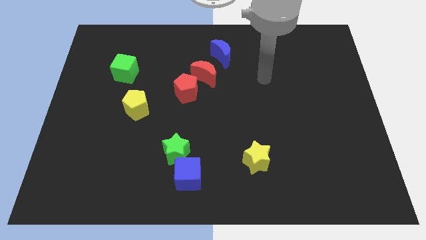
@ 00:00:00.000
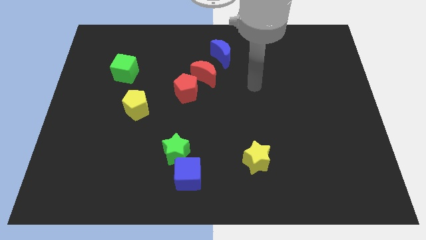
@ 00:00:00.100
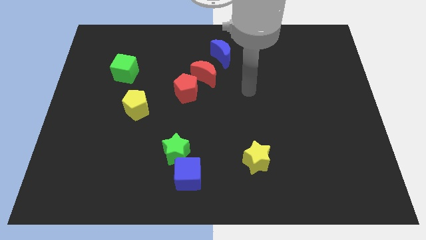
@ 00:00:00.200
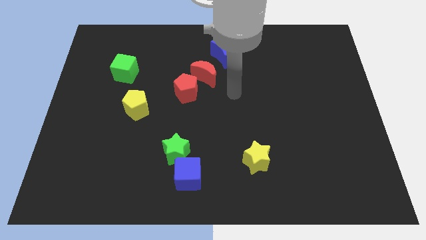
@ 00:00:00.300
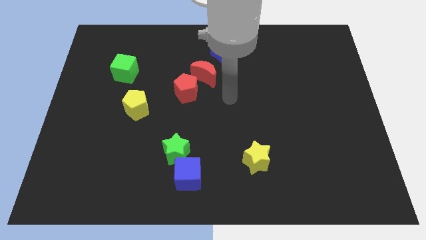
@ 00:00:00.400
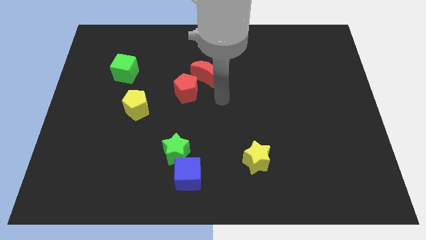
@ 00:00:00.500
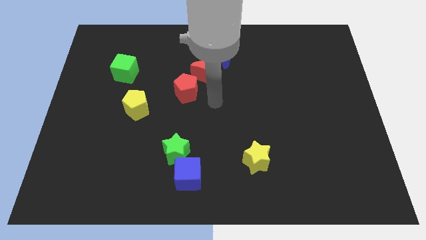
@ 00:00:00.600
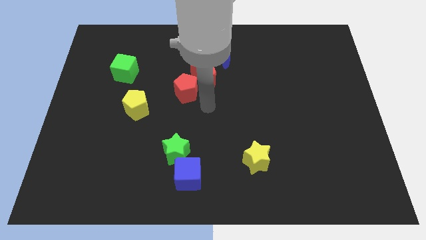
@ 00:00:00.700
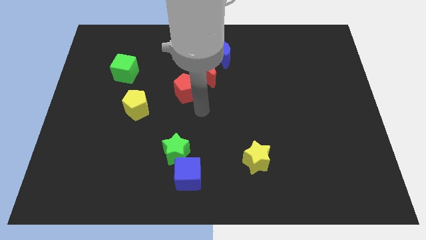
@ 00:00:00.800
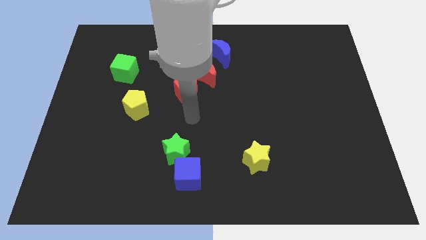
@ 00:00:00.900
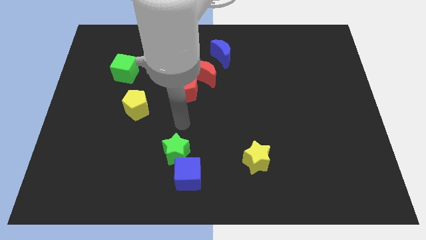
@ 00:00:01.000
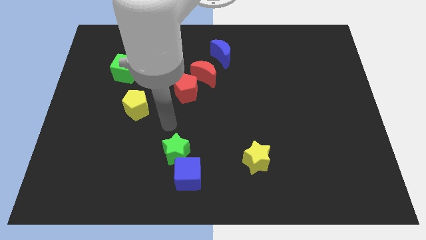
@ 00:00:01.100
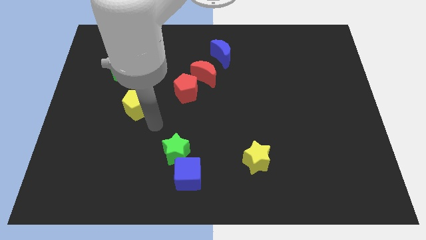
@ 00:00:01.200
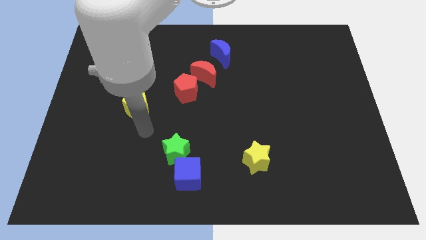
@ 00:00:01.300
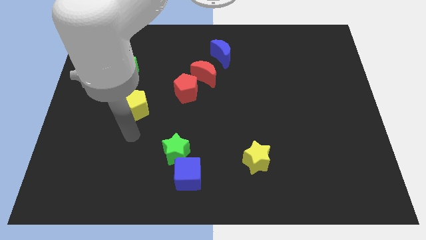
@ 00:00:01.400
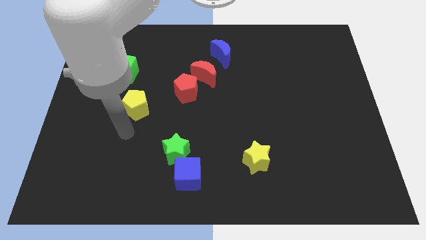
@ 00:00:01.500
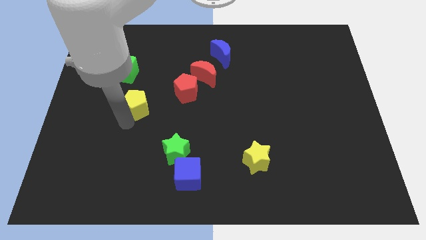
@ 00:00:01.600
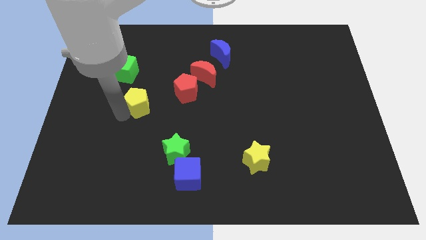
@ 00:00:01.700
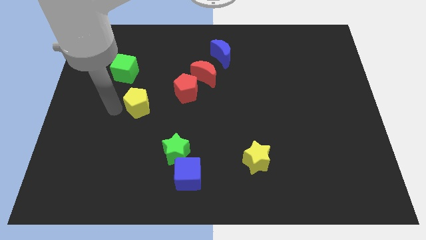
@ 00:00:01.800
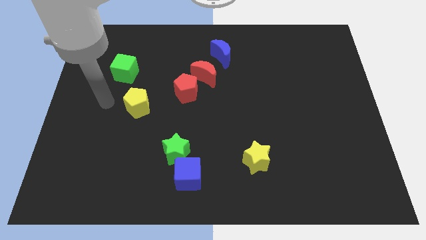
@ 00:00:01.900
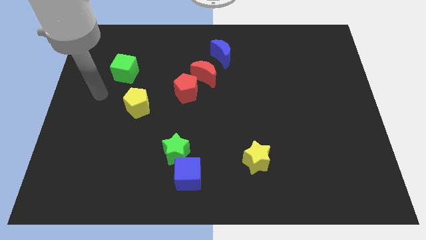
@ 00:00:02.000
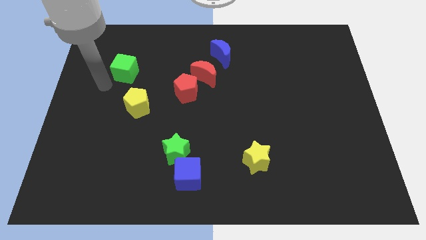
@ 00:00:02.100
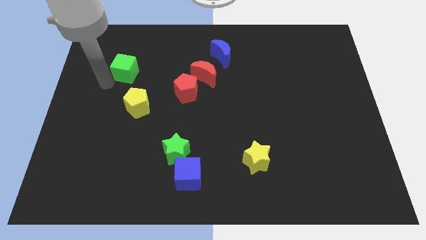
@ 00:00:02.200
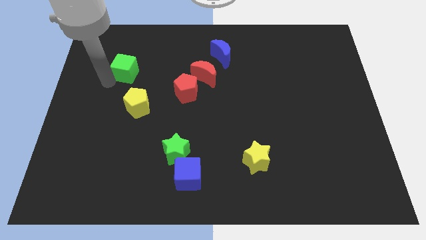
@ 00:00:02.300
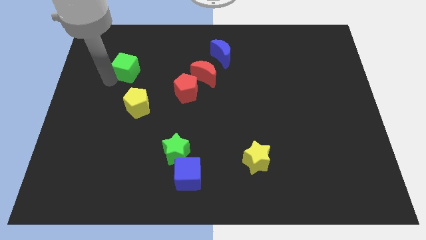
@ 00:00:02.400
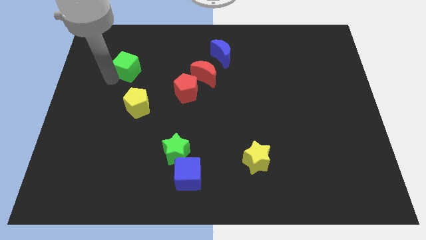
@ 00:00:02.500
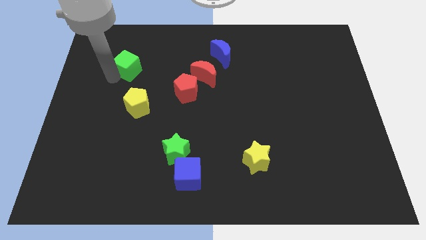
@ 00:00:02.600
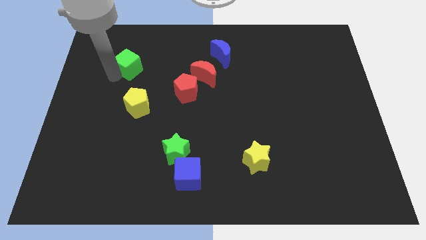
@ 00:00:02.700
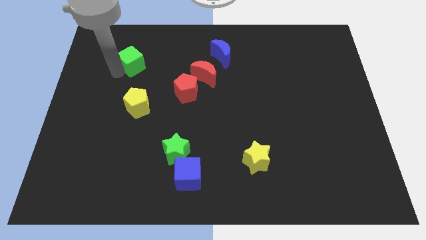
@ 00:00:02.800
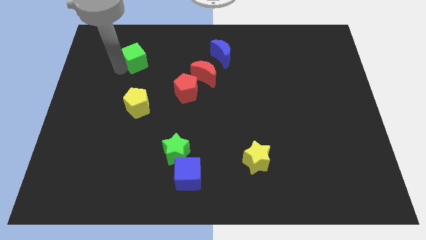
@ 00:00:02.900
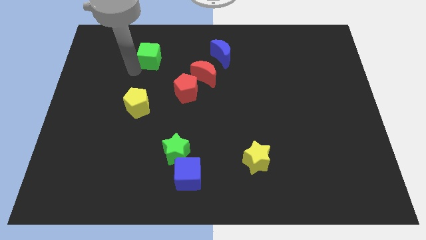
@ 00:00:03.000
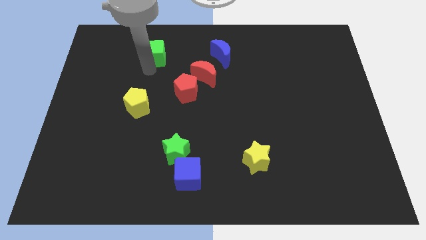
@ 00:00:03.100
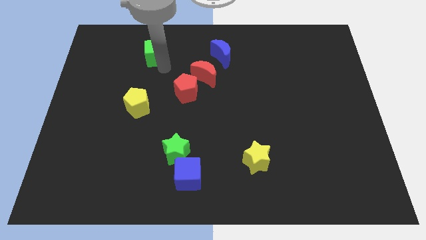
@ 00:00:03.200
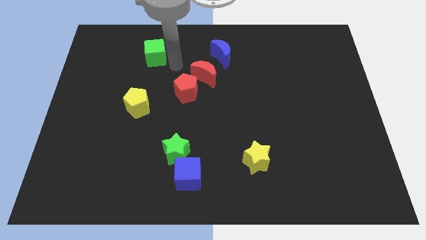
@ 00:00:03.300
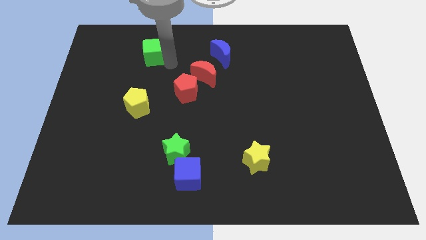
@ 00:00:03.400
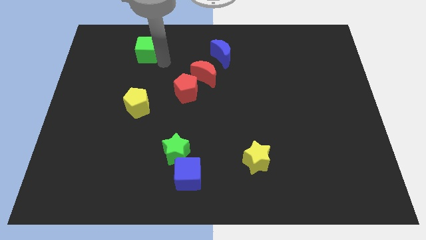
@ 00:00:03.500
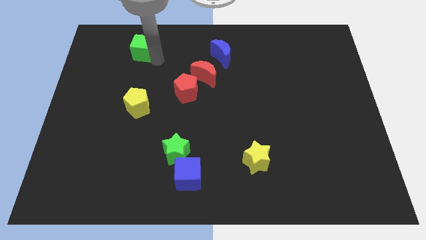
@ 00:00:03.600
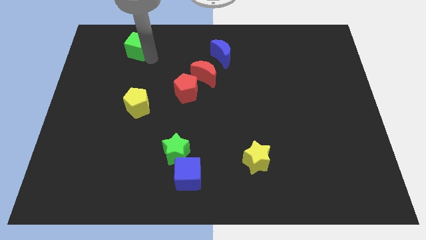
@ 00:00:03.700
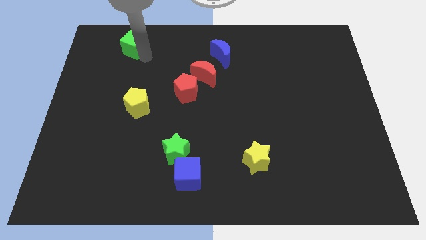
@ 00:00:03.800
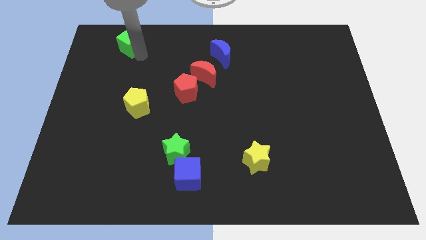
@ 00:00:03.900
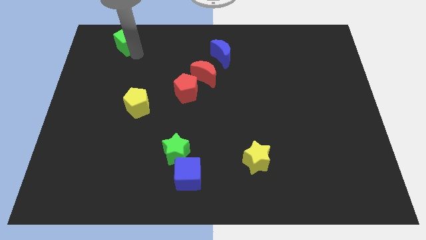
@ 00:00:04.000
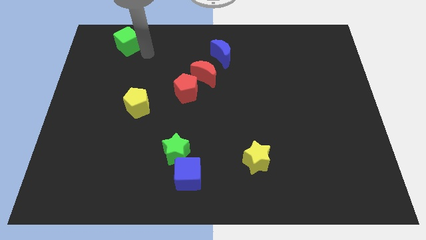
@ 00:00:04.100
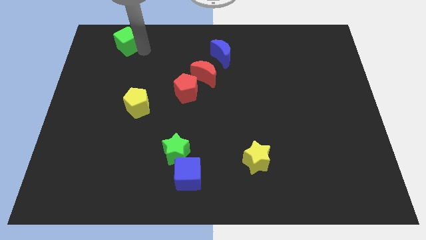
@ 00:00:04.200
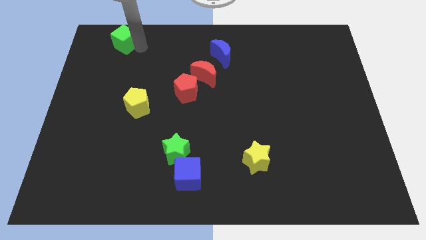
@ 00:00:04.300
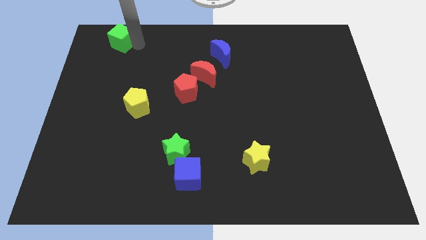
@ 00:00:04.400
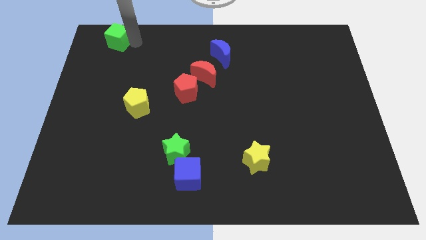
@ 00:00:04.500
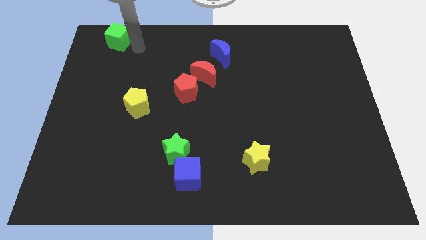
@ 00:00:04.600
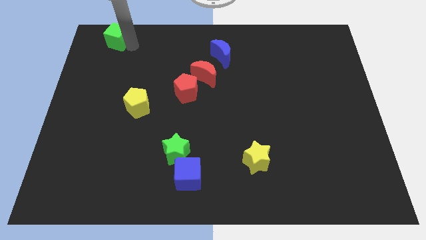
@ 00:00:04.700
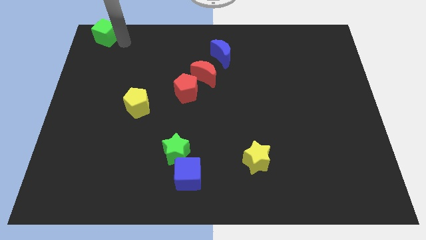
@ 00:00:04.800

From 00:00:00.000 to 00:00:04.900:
push the green cube to the top left of the board

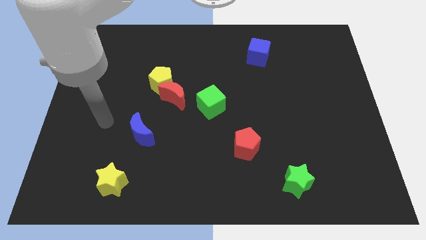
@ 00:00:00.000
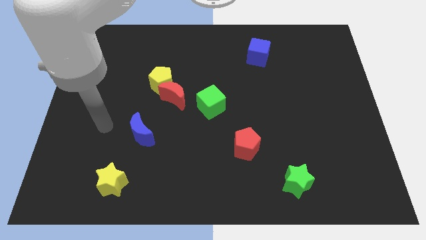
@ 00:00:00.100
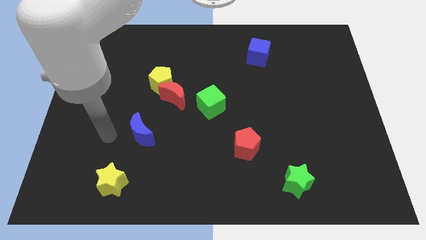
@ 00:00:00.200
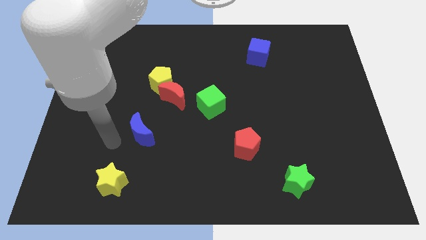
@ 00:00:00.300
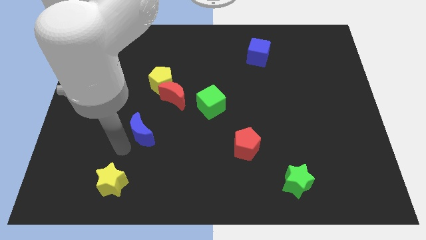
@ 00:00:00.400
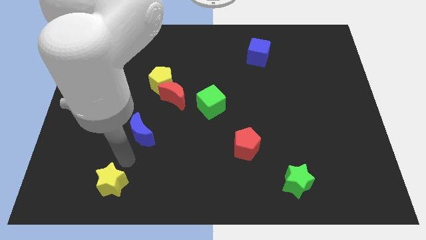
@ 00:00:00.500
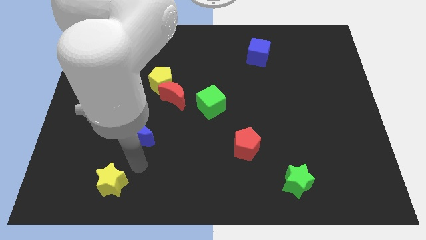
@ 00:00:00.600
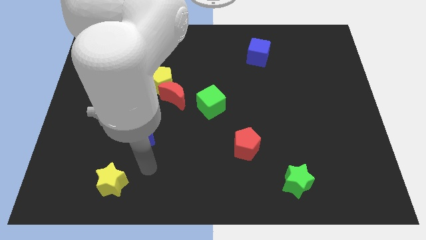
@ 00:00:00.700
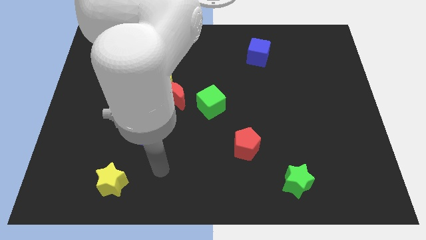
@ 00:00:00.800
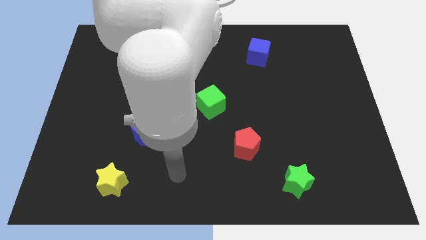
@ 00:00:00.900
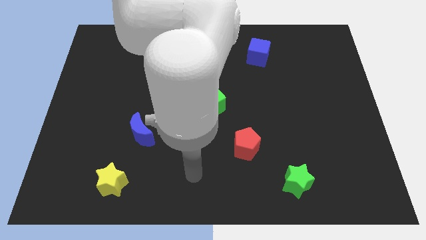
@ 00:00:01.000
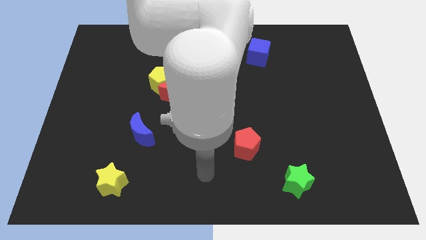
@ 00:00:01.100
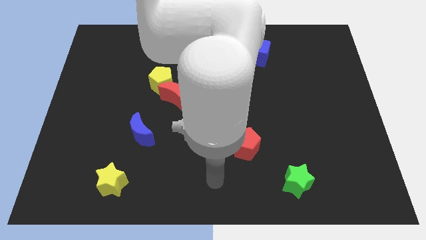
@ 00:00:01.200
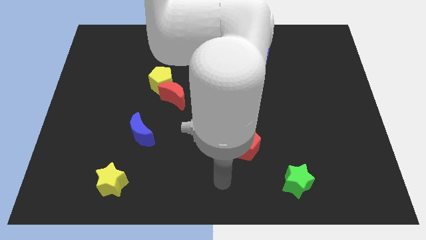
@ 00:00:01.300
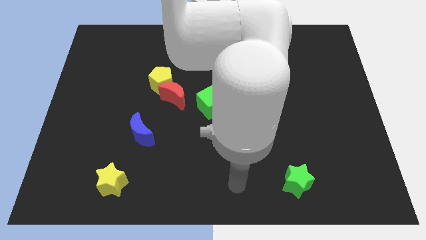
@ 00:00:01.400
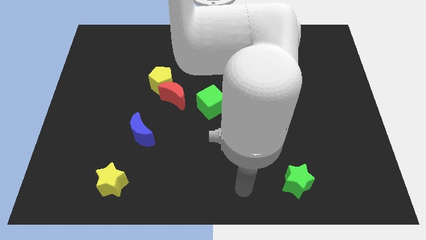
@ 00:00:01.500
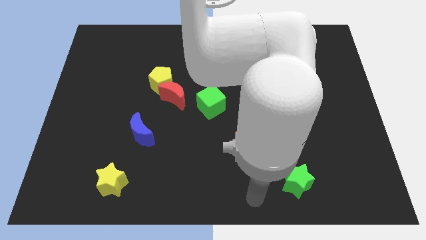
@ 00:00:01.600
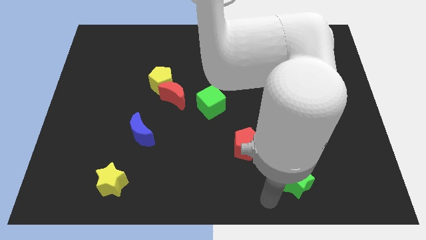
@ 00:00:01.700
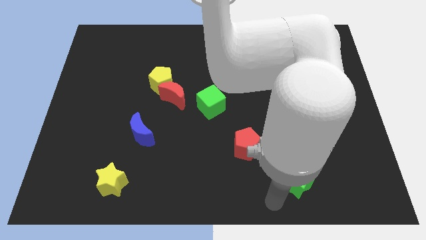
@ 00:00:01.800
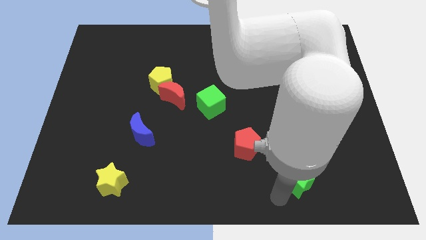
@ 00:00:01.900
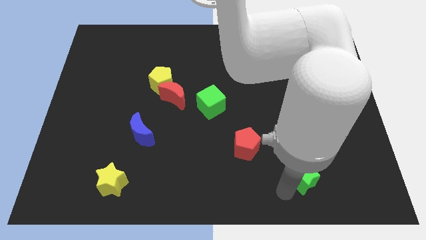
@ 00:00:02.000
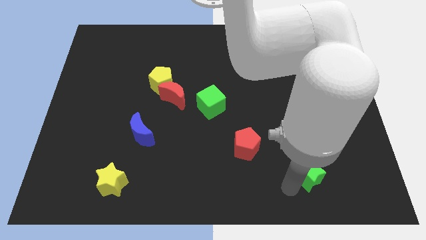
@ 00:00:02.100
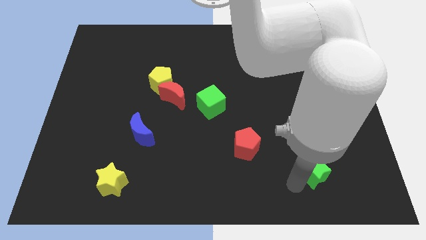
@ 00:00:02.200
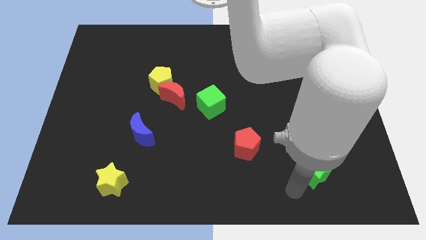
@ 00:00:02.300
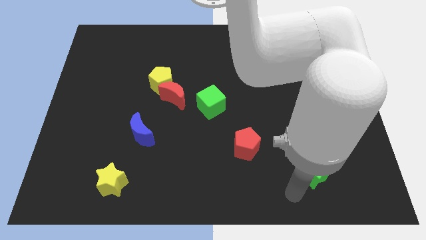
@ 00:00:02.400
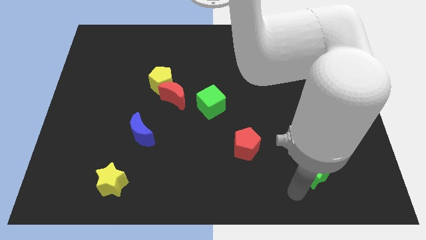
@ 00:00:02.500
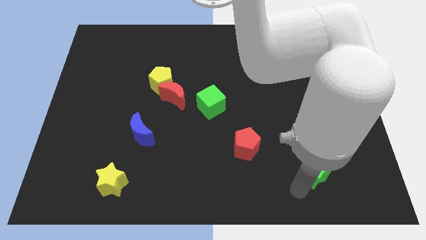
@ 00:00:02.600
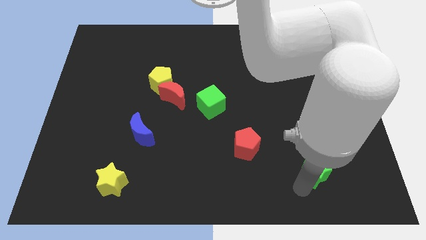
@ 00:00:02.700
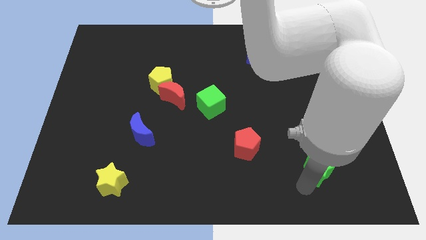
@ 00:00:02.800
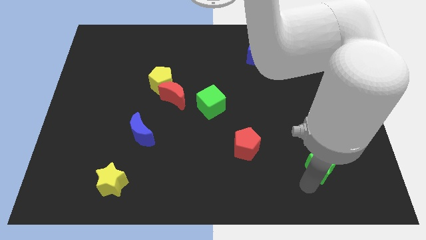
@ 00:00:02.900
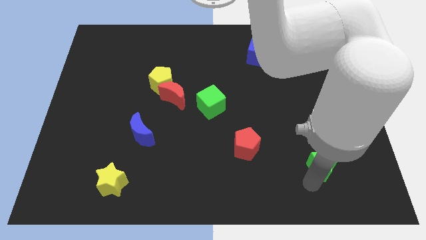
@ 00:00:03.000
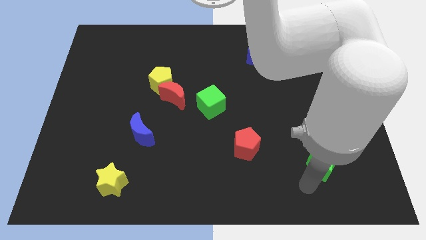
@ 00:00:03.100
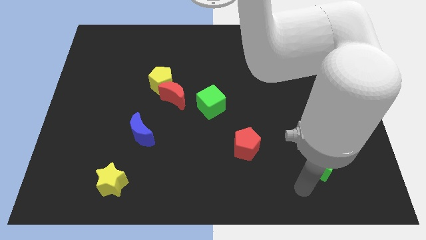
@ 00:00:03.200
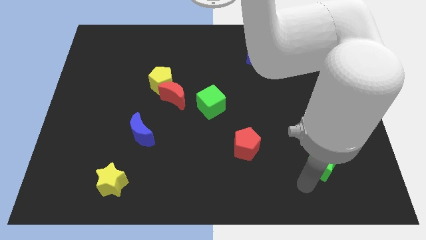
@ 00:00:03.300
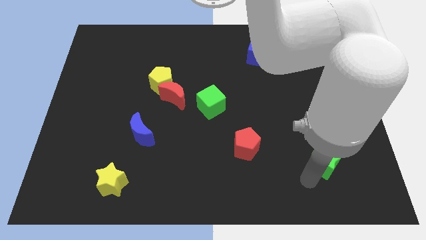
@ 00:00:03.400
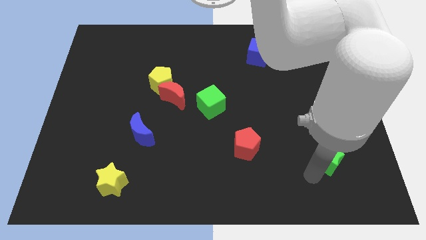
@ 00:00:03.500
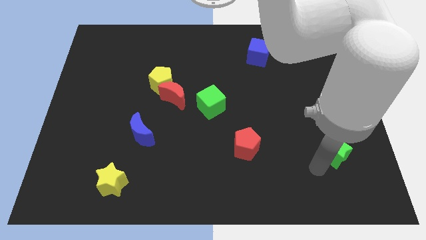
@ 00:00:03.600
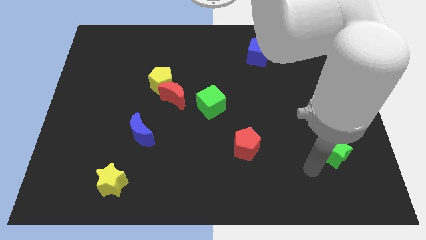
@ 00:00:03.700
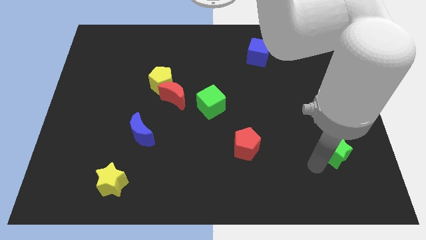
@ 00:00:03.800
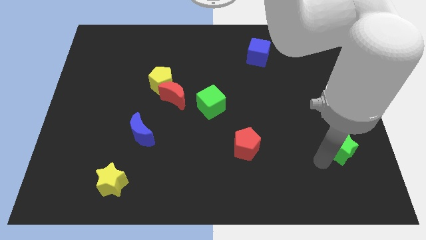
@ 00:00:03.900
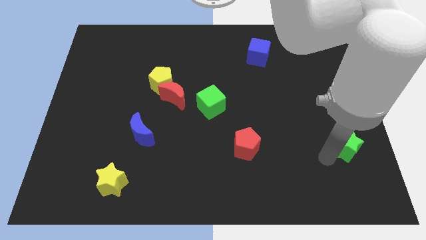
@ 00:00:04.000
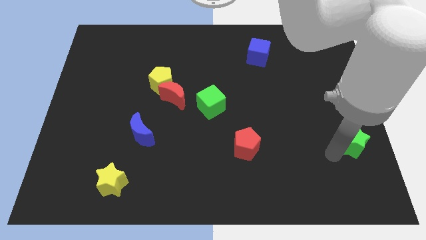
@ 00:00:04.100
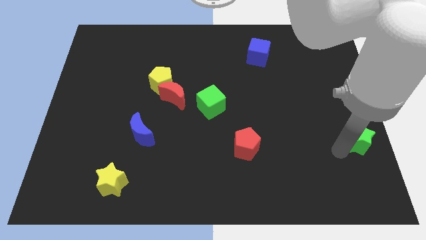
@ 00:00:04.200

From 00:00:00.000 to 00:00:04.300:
slide the green star to the right side of the board
